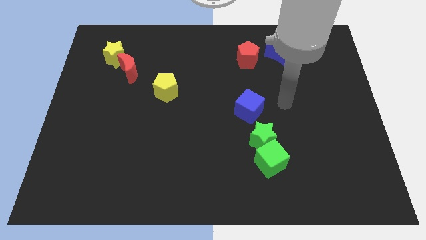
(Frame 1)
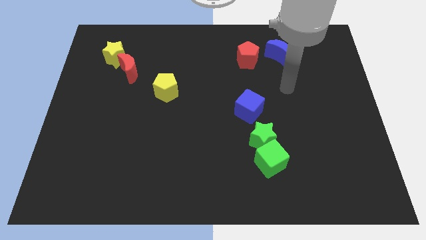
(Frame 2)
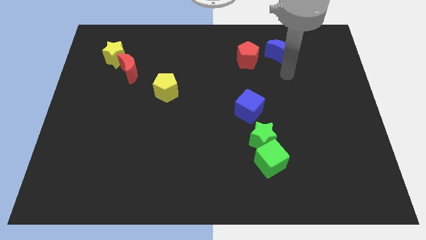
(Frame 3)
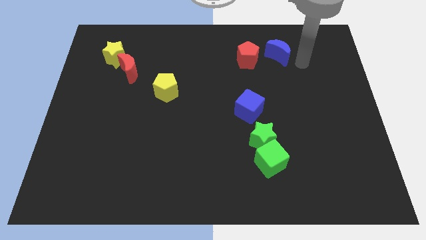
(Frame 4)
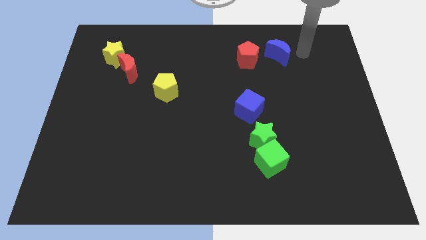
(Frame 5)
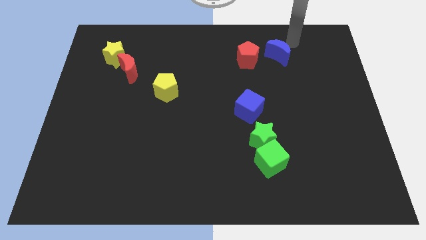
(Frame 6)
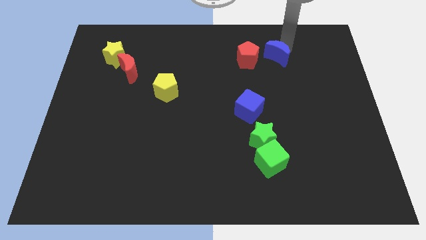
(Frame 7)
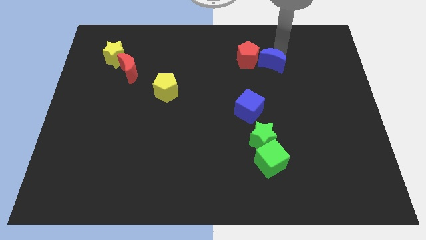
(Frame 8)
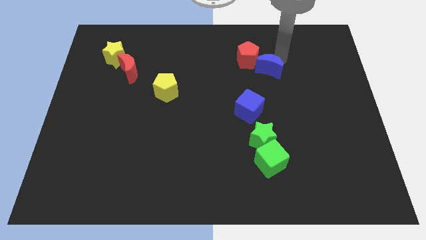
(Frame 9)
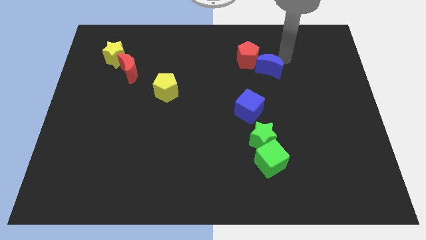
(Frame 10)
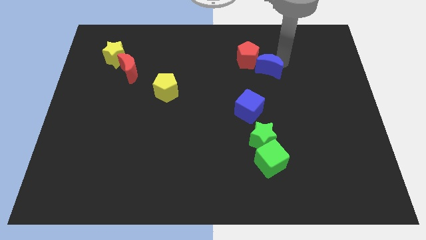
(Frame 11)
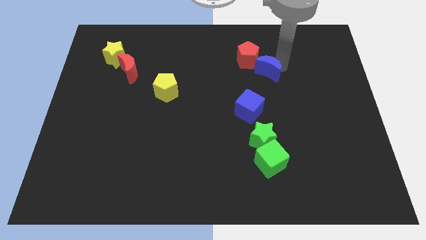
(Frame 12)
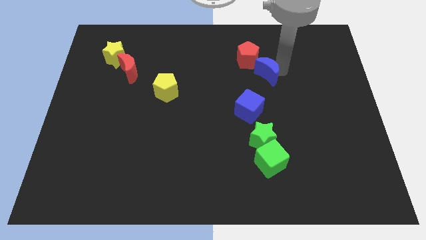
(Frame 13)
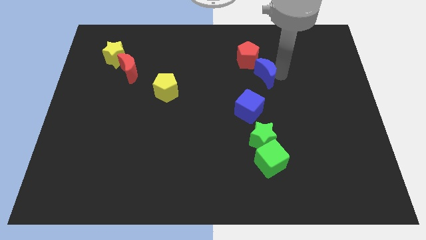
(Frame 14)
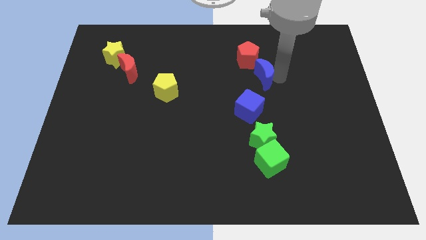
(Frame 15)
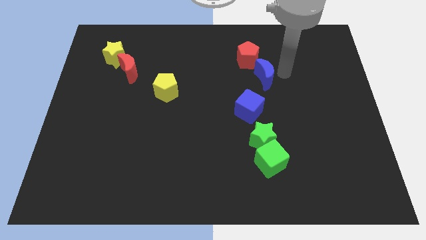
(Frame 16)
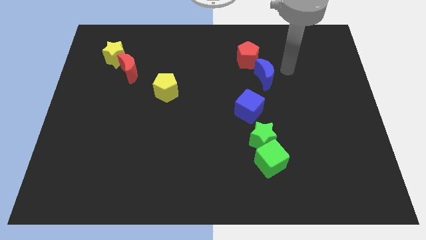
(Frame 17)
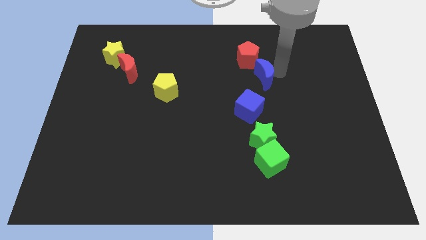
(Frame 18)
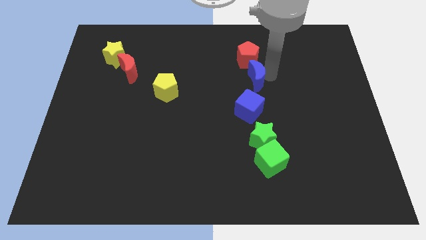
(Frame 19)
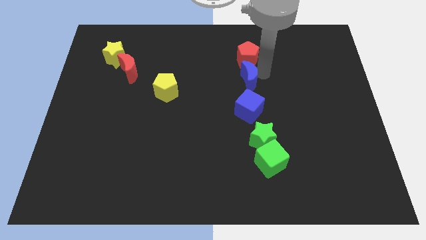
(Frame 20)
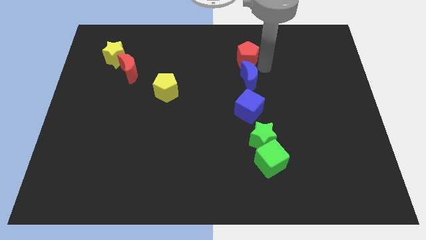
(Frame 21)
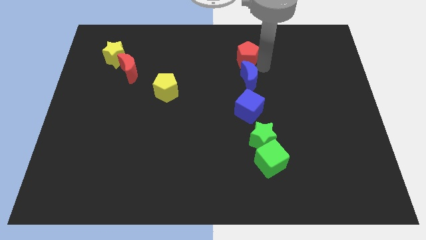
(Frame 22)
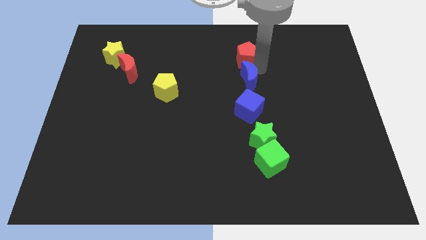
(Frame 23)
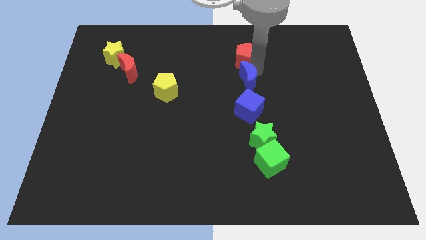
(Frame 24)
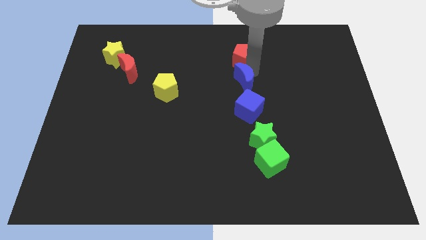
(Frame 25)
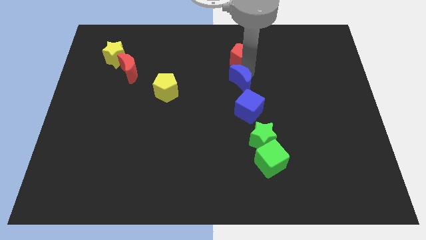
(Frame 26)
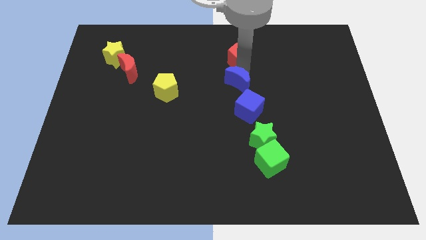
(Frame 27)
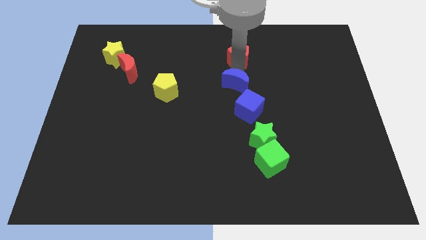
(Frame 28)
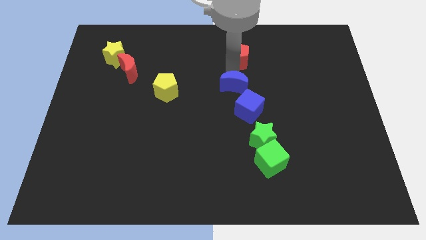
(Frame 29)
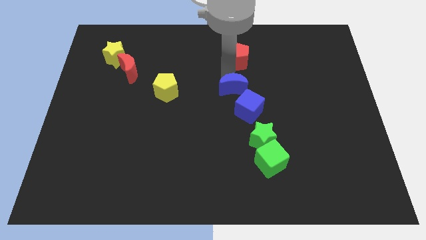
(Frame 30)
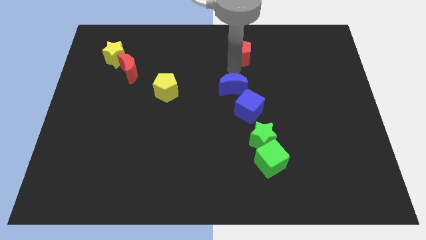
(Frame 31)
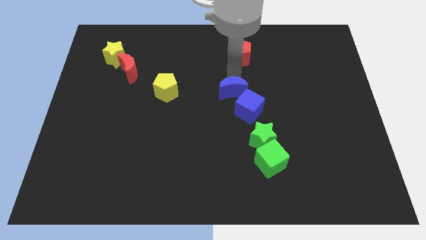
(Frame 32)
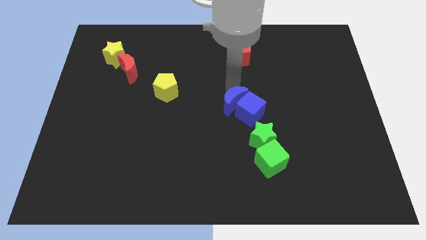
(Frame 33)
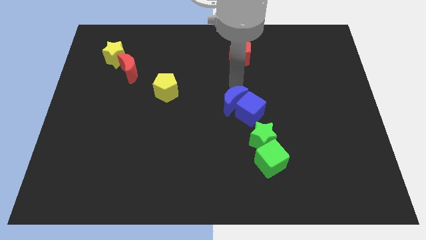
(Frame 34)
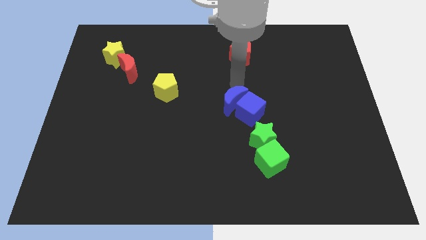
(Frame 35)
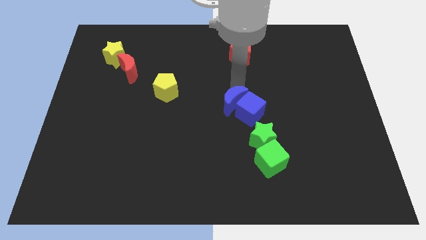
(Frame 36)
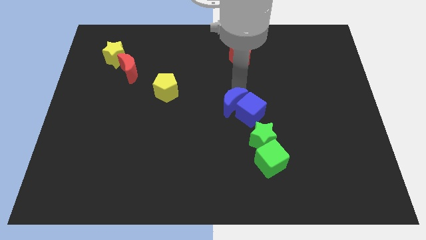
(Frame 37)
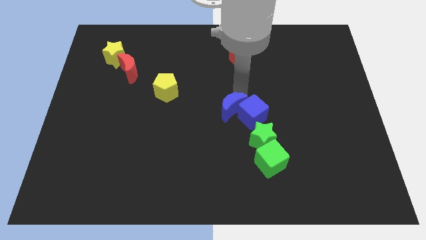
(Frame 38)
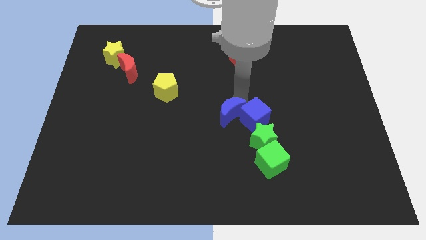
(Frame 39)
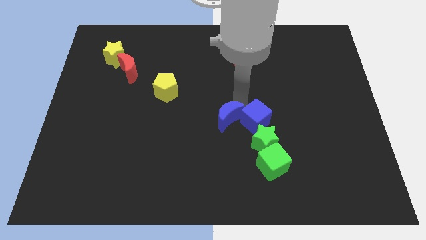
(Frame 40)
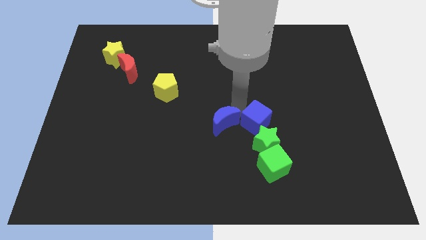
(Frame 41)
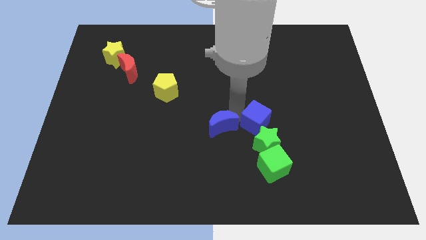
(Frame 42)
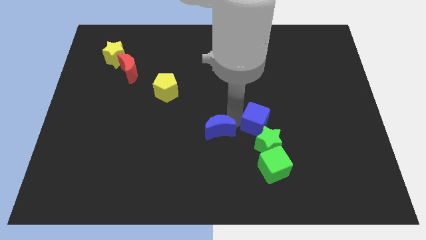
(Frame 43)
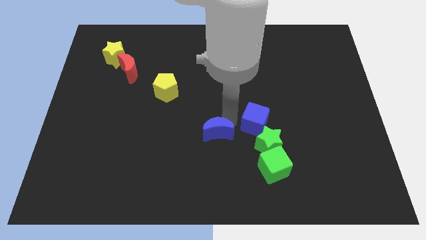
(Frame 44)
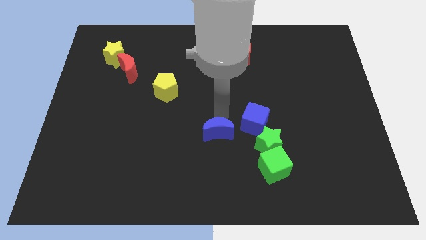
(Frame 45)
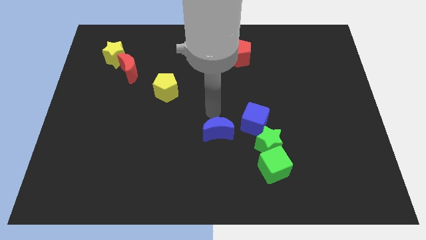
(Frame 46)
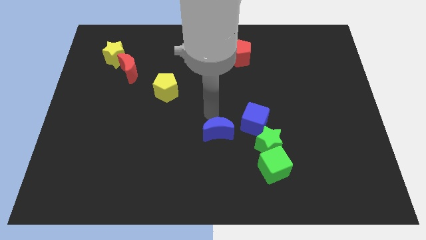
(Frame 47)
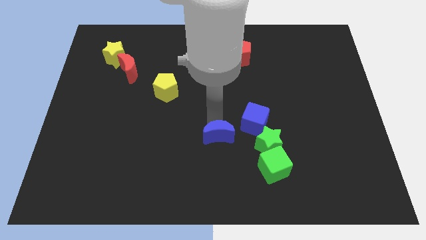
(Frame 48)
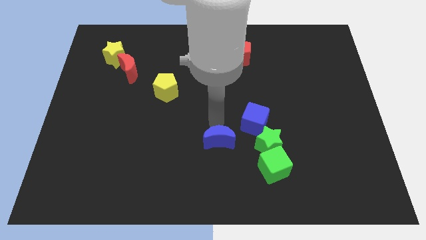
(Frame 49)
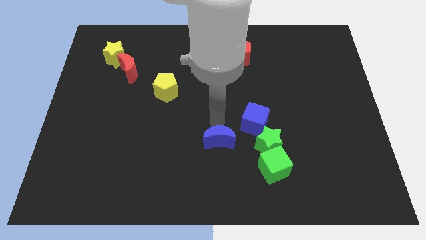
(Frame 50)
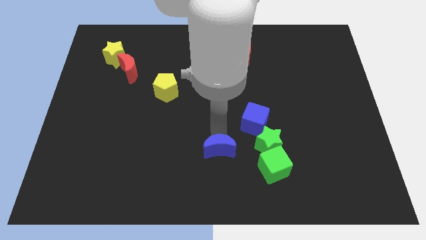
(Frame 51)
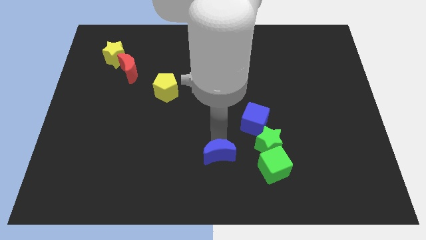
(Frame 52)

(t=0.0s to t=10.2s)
move the blue moon to the bottom side

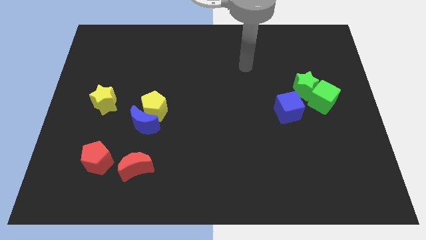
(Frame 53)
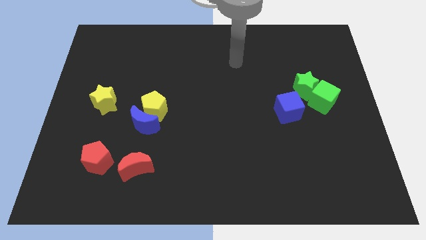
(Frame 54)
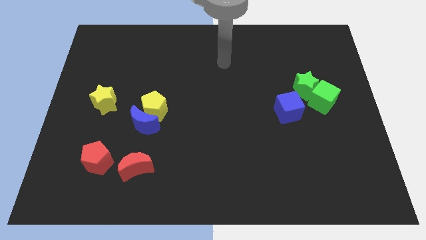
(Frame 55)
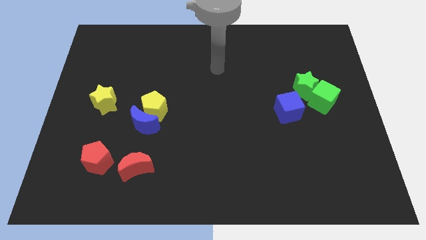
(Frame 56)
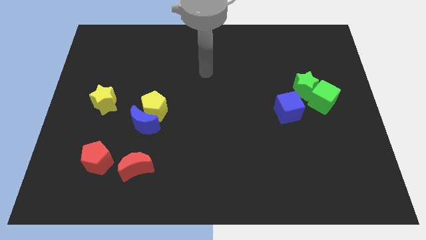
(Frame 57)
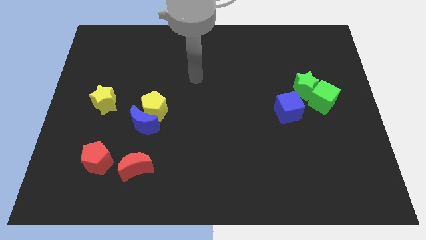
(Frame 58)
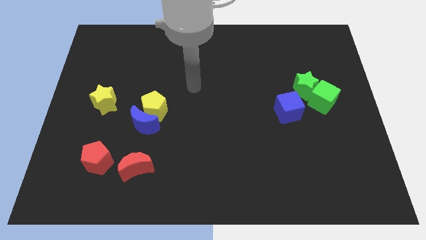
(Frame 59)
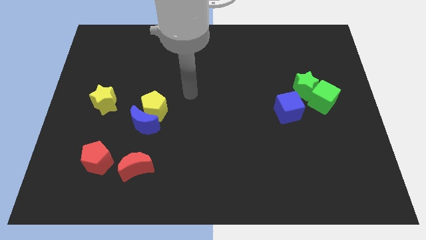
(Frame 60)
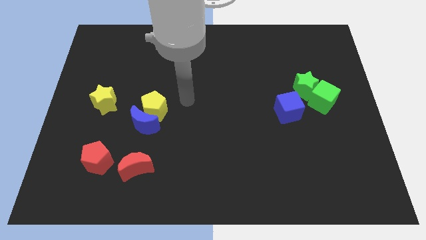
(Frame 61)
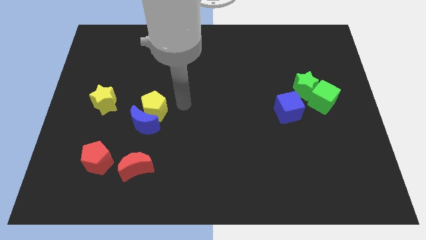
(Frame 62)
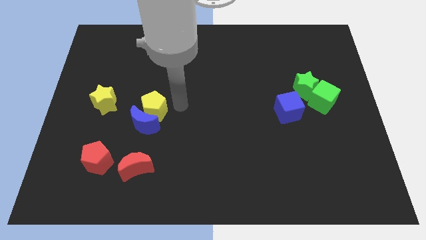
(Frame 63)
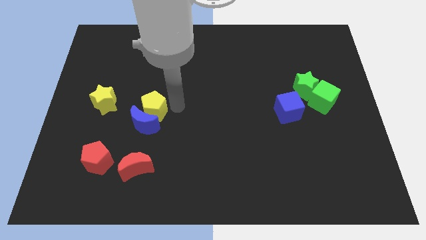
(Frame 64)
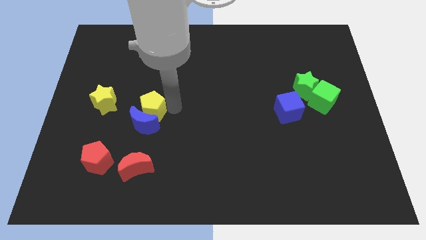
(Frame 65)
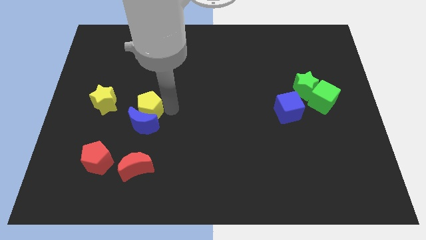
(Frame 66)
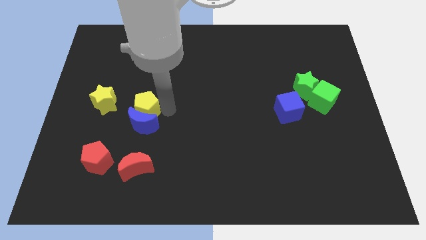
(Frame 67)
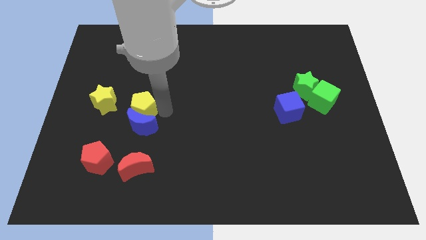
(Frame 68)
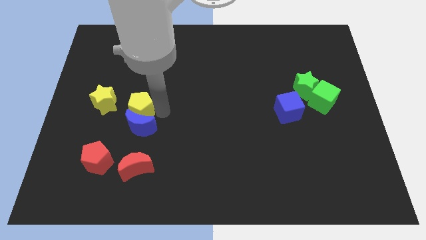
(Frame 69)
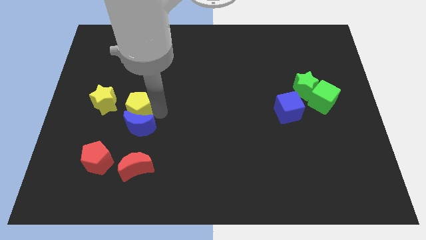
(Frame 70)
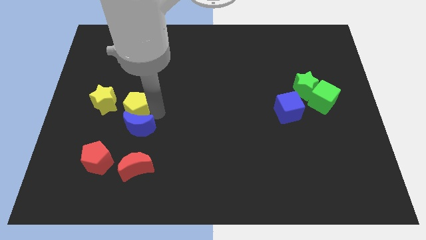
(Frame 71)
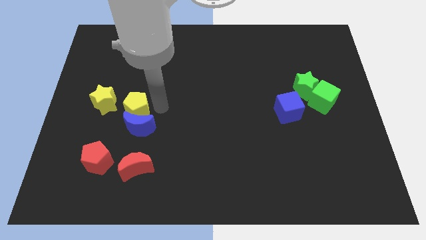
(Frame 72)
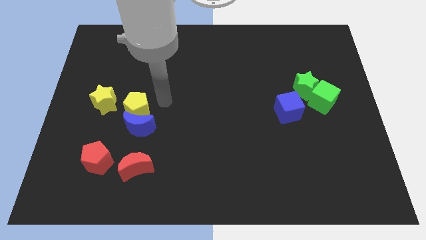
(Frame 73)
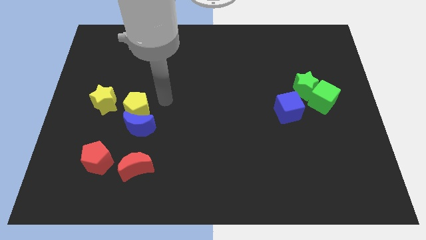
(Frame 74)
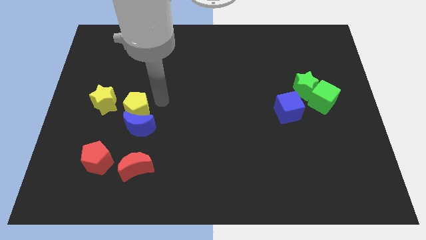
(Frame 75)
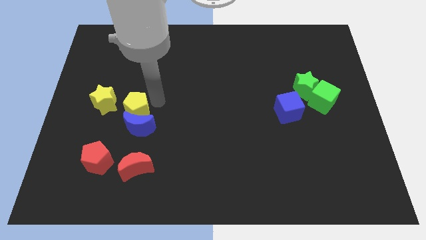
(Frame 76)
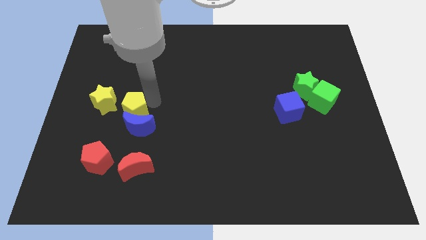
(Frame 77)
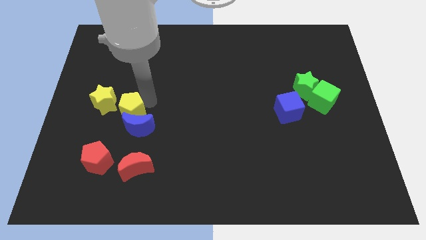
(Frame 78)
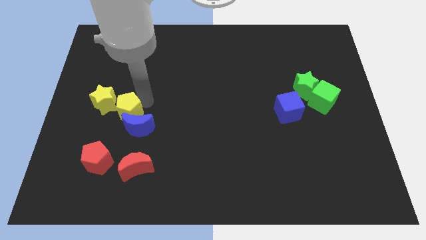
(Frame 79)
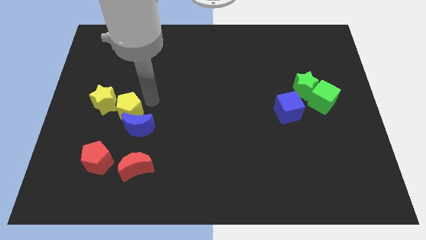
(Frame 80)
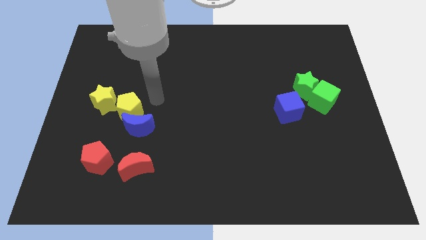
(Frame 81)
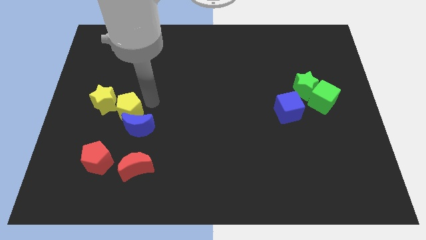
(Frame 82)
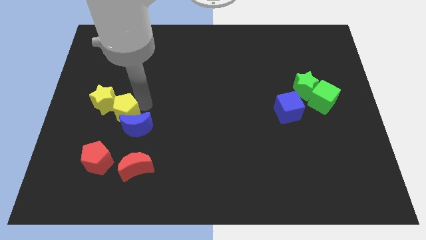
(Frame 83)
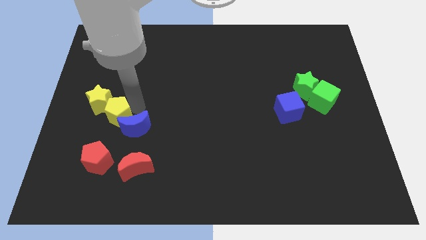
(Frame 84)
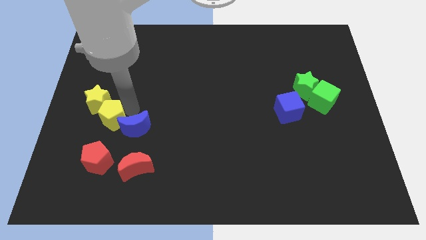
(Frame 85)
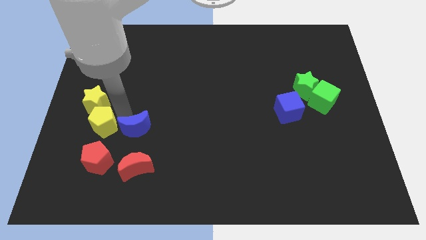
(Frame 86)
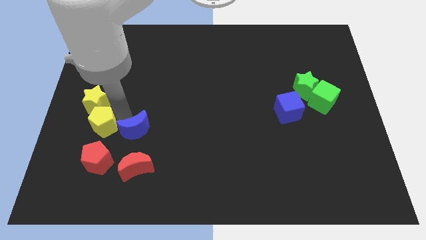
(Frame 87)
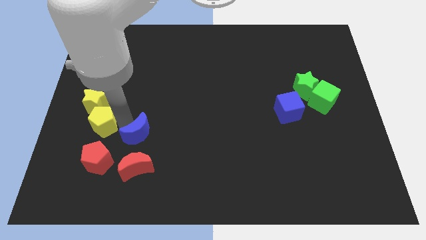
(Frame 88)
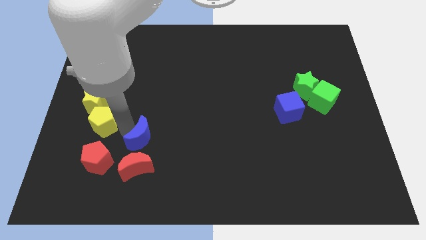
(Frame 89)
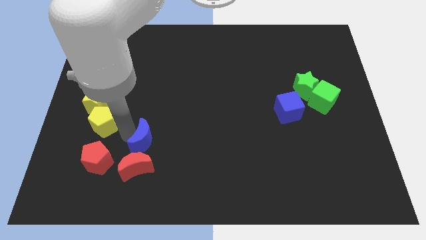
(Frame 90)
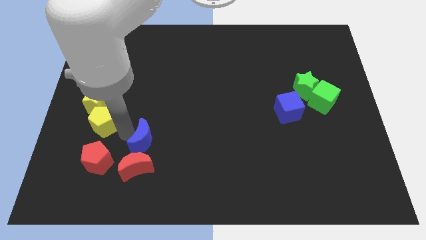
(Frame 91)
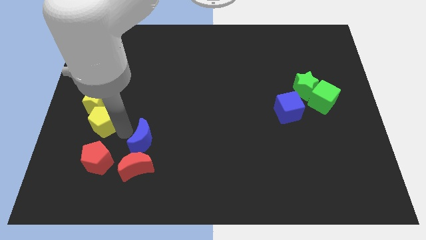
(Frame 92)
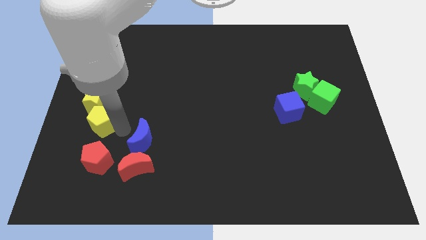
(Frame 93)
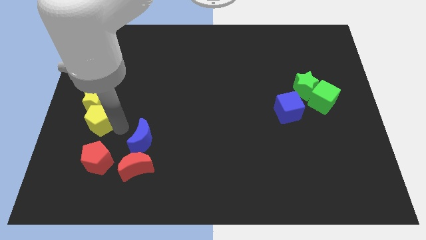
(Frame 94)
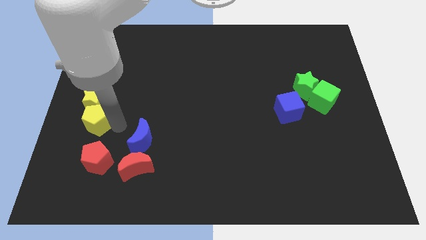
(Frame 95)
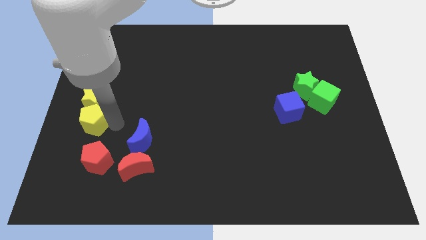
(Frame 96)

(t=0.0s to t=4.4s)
put the yellow pentagon to the left side
